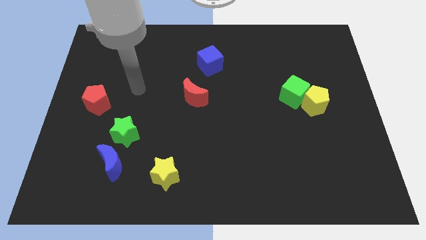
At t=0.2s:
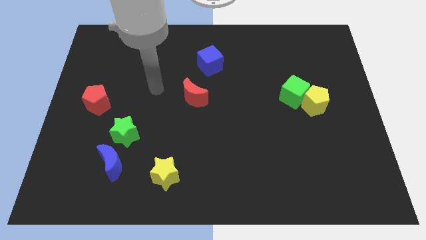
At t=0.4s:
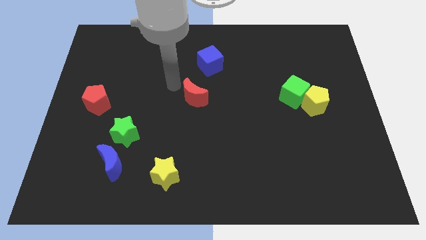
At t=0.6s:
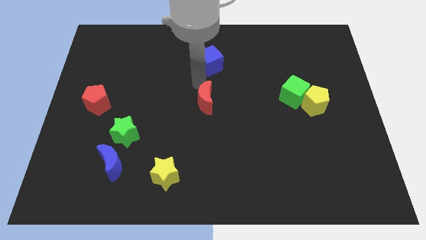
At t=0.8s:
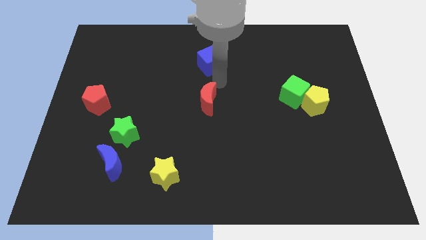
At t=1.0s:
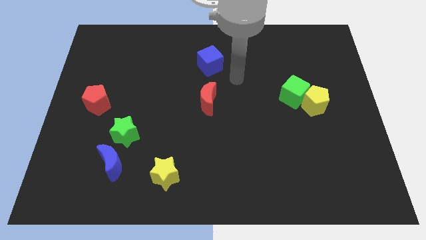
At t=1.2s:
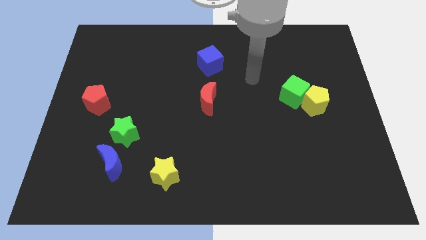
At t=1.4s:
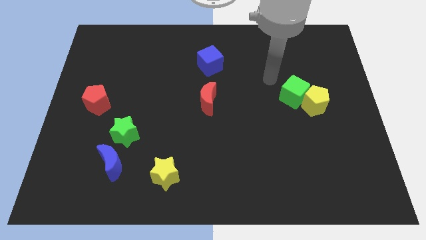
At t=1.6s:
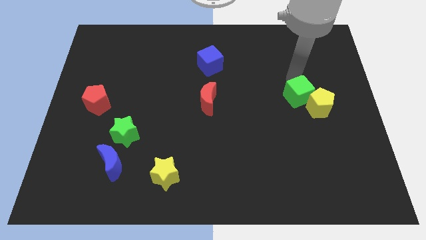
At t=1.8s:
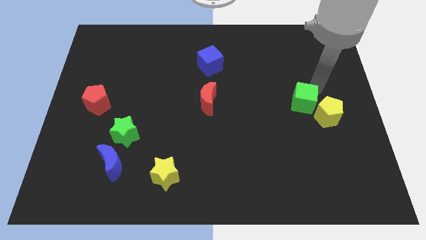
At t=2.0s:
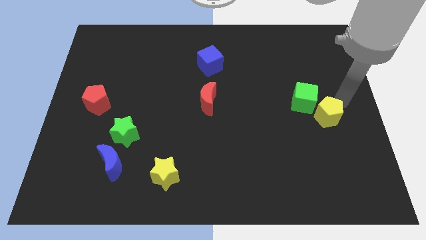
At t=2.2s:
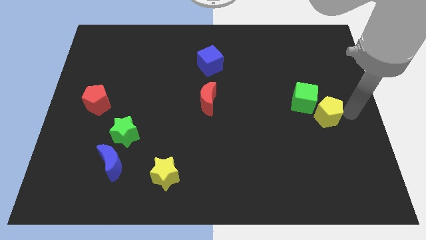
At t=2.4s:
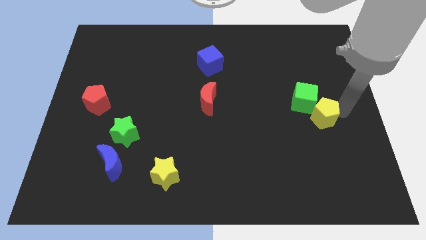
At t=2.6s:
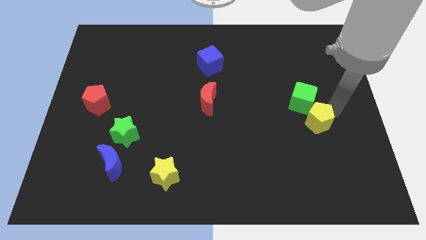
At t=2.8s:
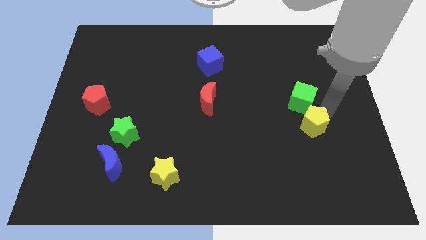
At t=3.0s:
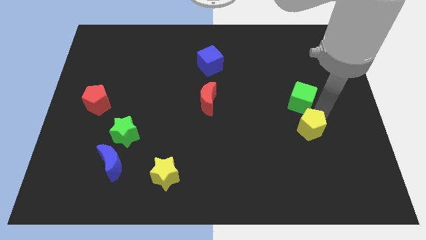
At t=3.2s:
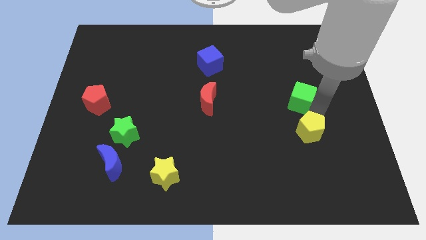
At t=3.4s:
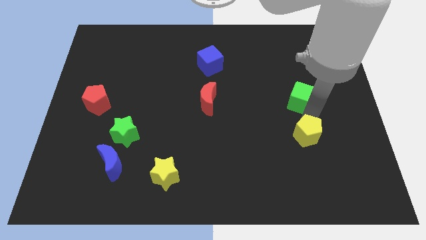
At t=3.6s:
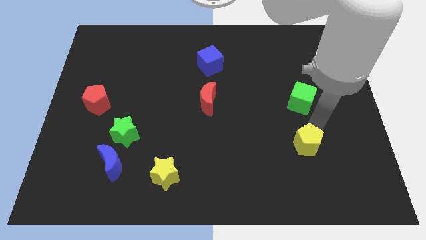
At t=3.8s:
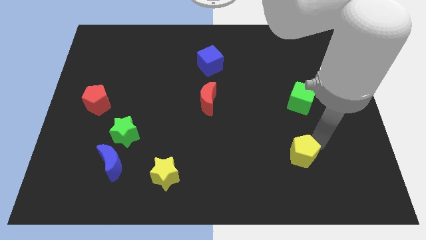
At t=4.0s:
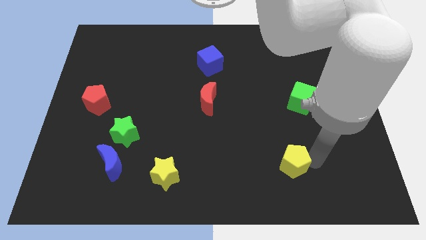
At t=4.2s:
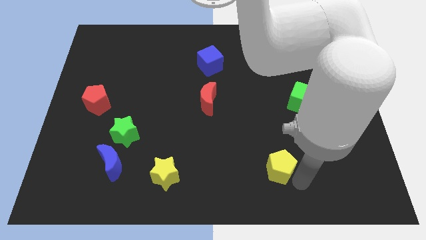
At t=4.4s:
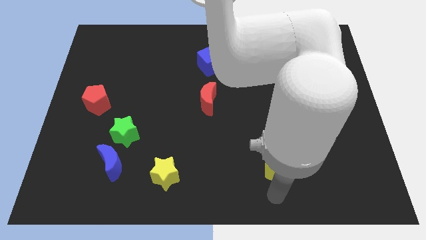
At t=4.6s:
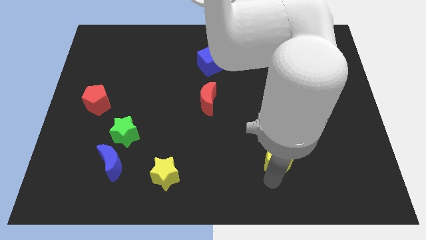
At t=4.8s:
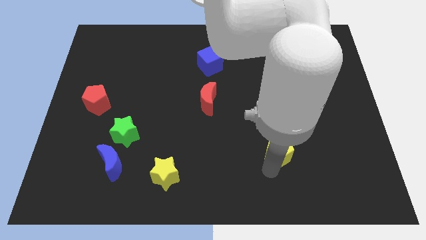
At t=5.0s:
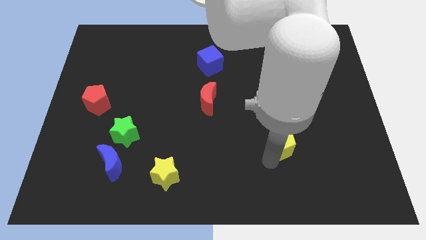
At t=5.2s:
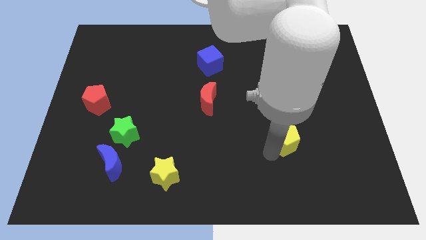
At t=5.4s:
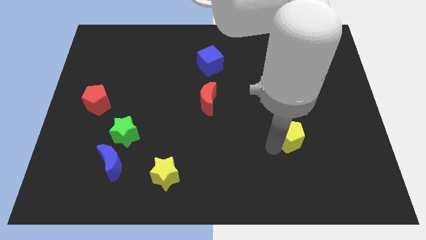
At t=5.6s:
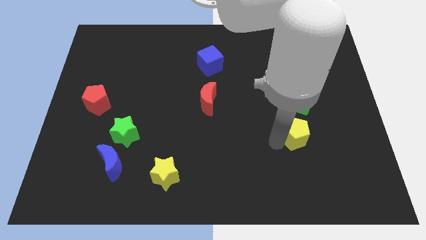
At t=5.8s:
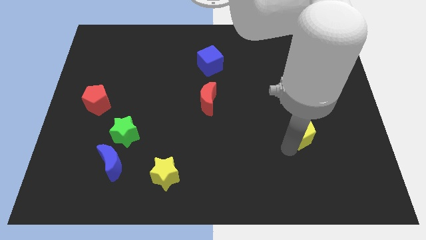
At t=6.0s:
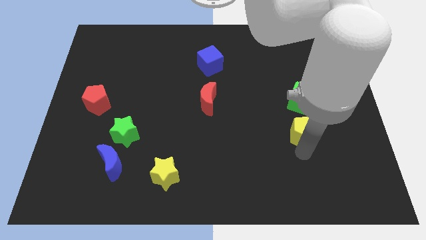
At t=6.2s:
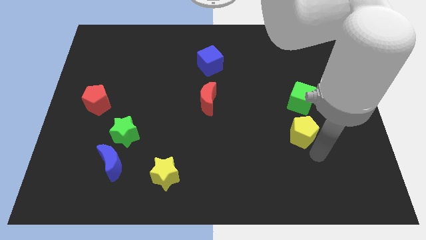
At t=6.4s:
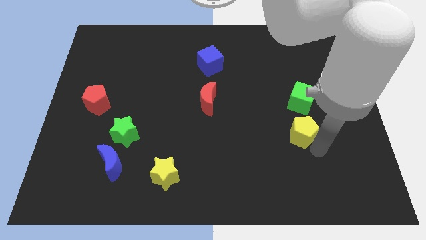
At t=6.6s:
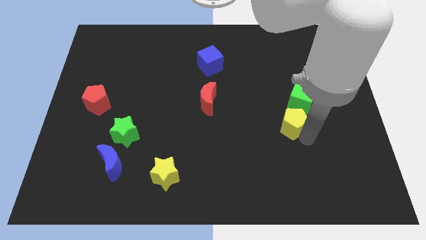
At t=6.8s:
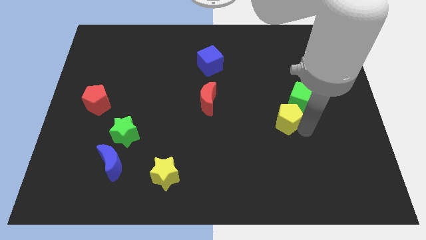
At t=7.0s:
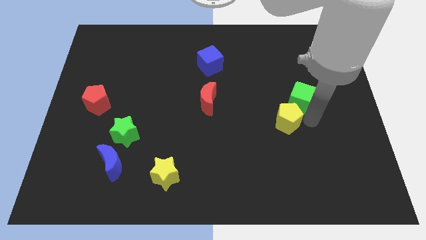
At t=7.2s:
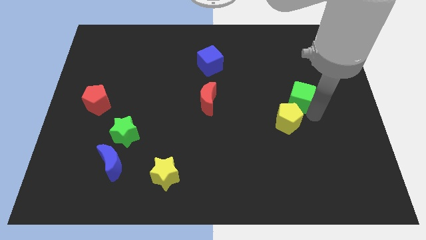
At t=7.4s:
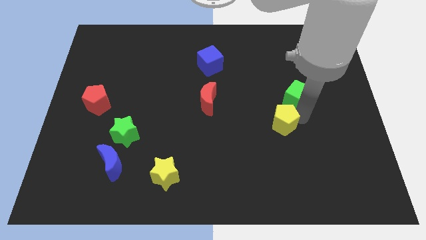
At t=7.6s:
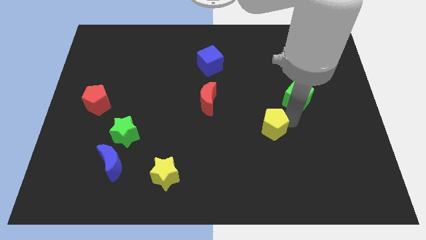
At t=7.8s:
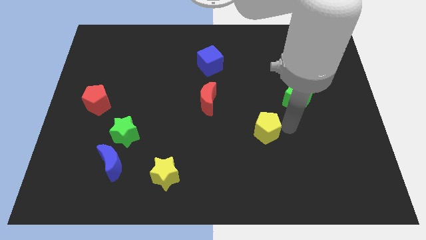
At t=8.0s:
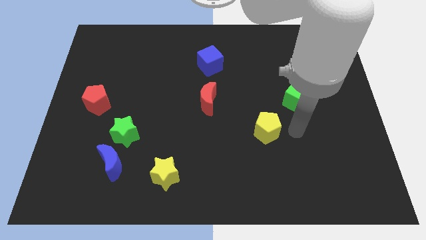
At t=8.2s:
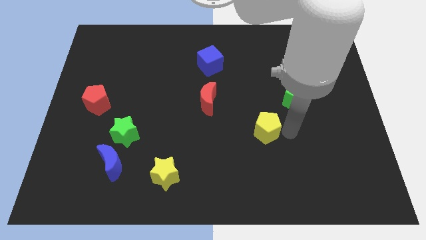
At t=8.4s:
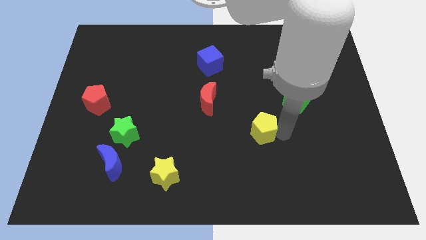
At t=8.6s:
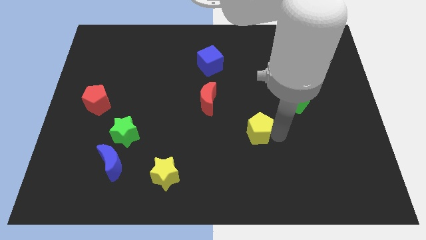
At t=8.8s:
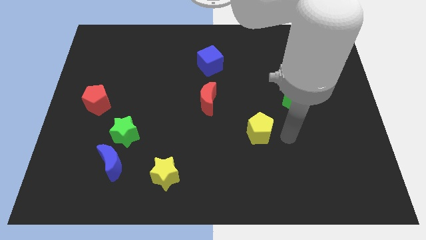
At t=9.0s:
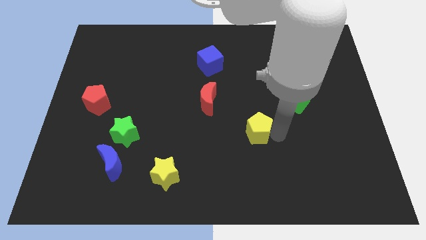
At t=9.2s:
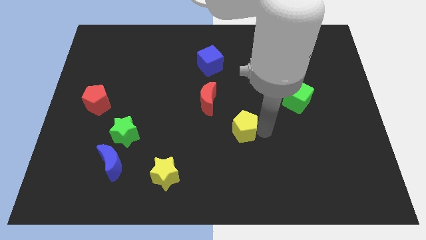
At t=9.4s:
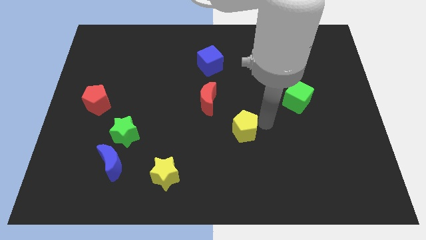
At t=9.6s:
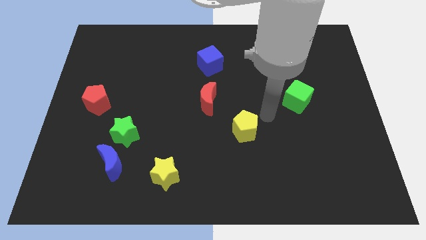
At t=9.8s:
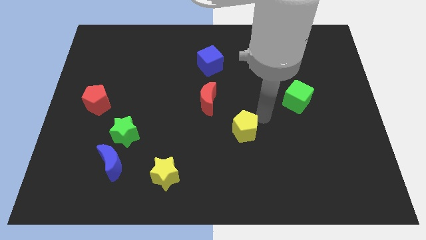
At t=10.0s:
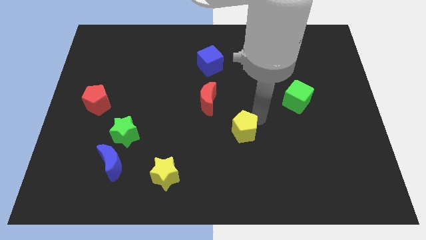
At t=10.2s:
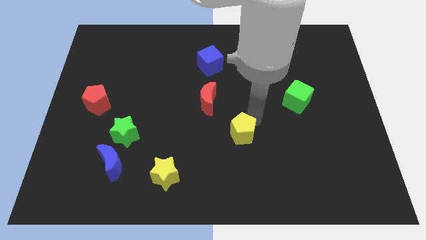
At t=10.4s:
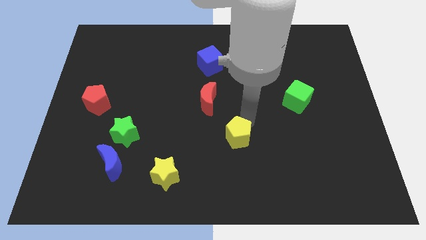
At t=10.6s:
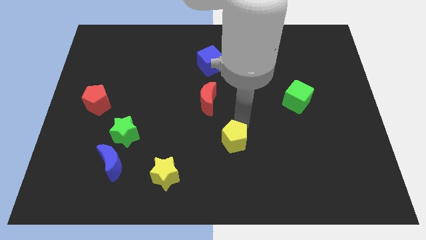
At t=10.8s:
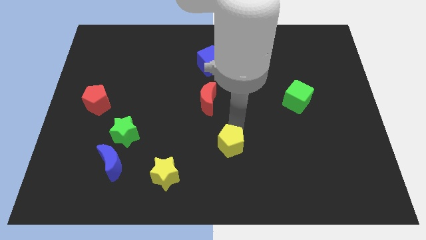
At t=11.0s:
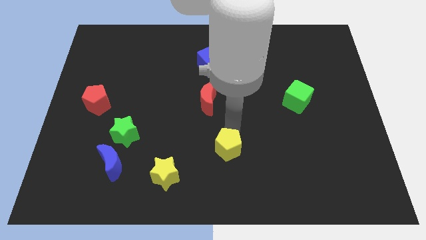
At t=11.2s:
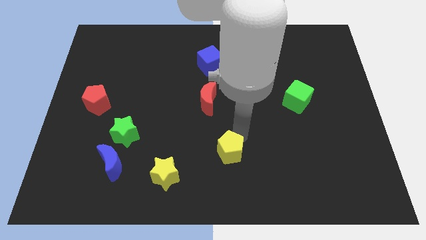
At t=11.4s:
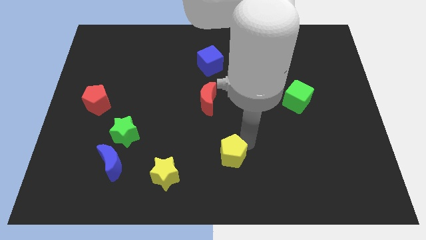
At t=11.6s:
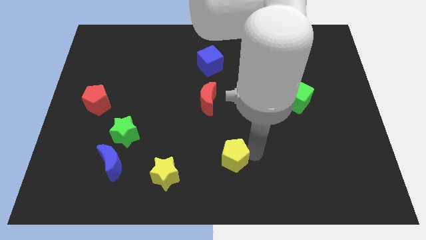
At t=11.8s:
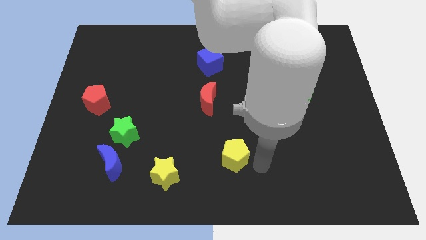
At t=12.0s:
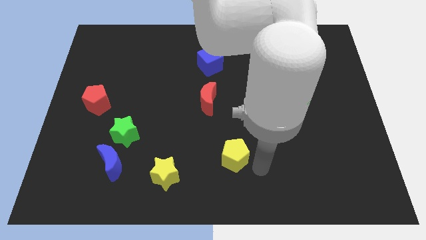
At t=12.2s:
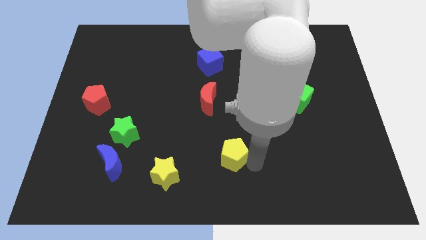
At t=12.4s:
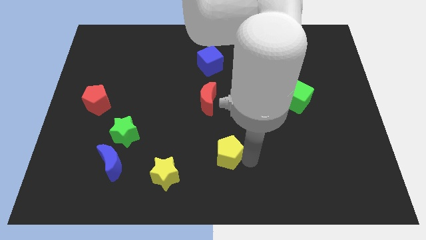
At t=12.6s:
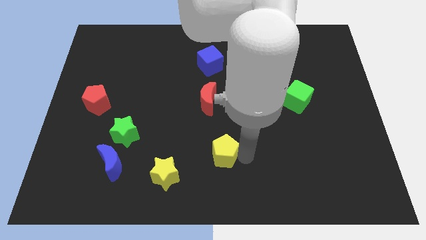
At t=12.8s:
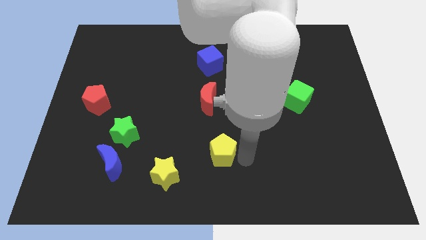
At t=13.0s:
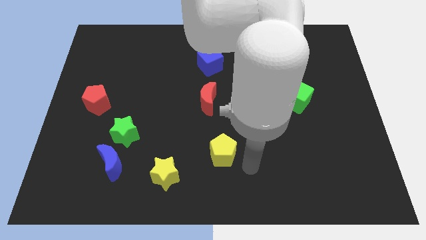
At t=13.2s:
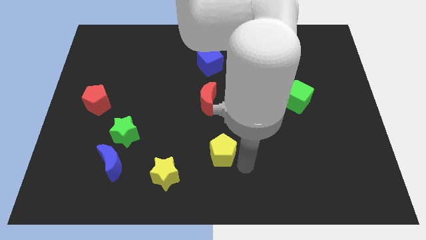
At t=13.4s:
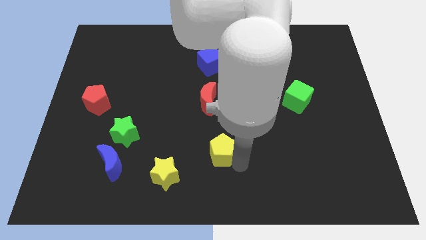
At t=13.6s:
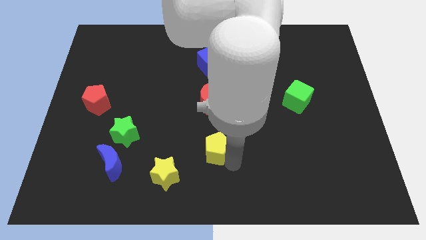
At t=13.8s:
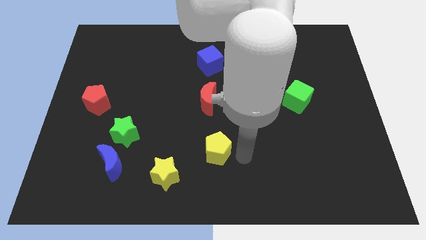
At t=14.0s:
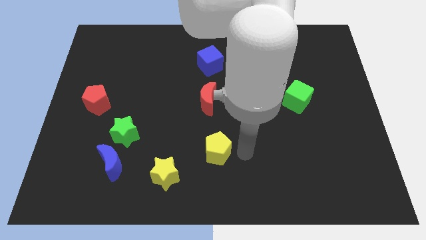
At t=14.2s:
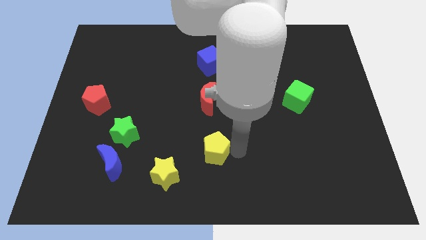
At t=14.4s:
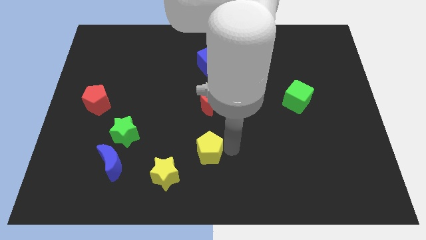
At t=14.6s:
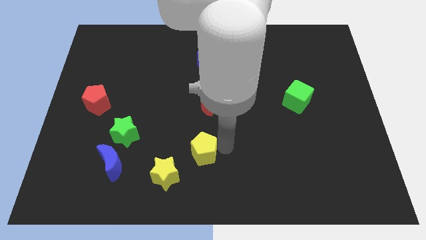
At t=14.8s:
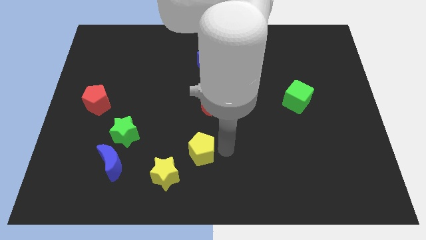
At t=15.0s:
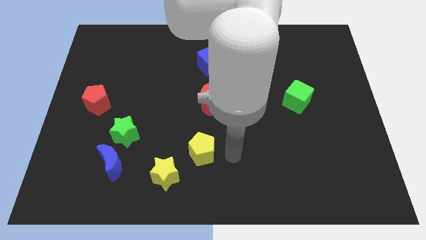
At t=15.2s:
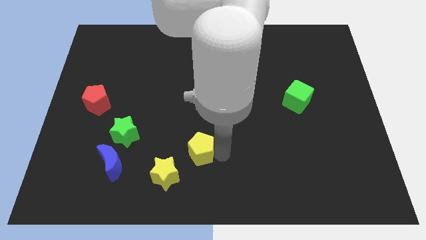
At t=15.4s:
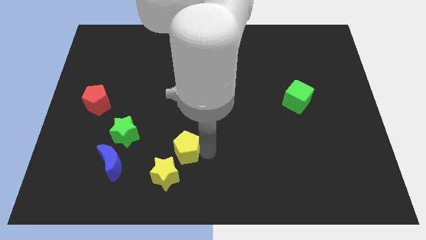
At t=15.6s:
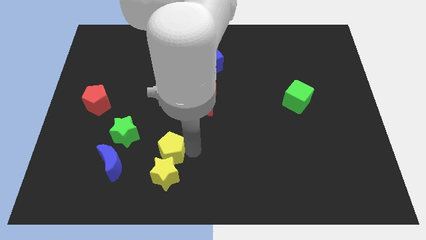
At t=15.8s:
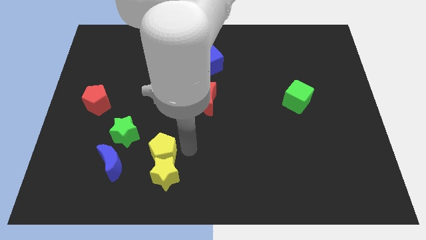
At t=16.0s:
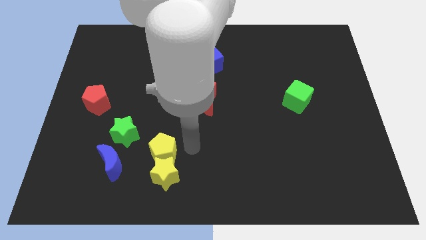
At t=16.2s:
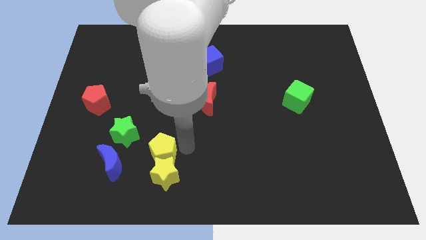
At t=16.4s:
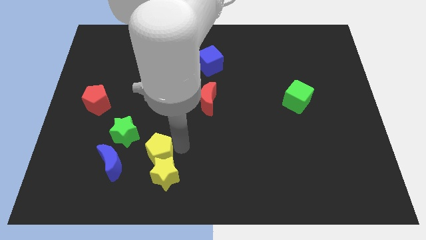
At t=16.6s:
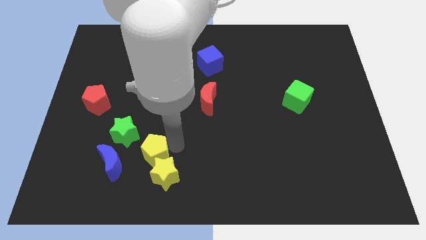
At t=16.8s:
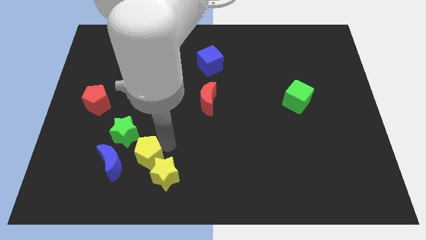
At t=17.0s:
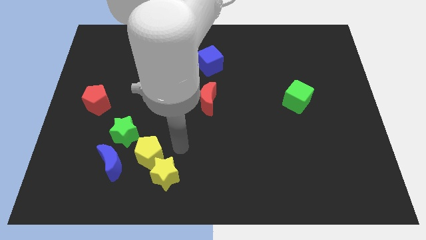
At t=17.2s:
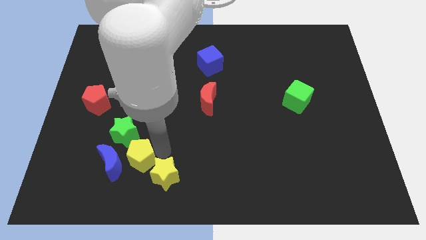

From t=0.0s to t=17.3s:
put the yellow pentagon to the blue moon
